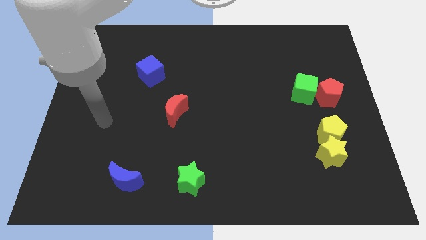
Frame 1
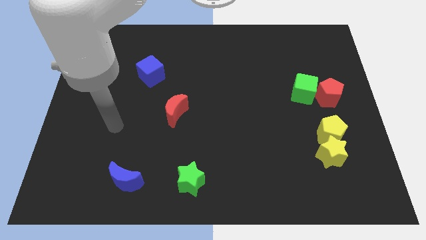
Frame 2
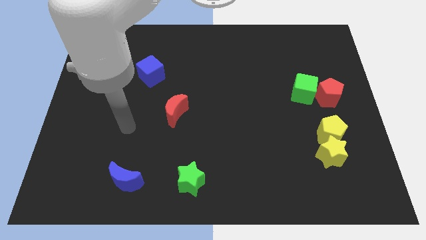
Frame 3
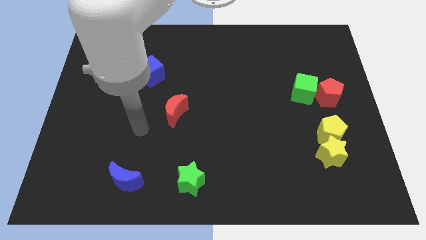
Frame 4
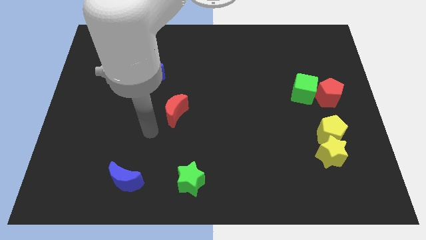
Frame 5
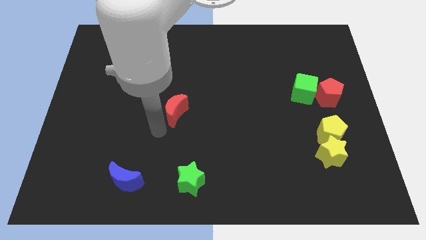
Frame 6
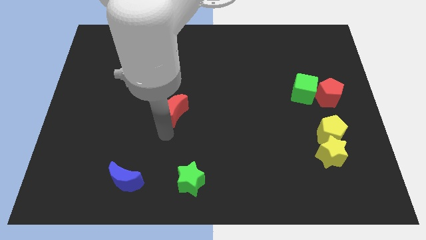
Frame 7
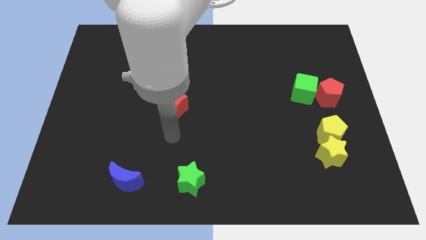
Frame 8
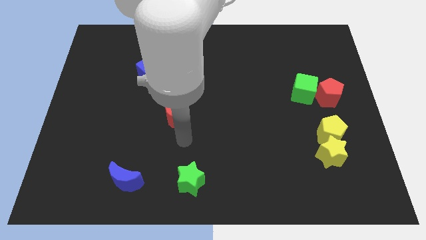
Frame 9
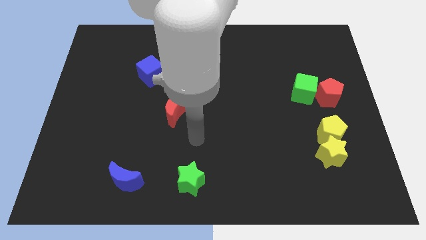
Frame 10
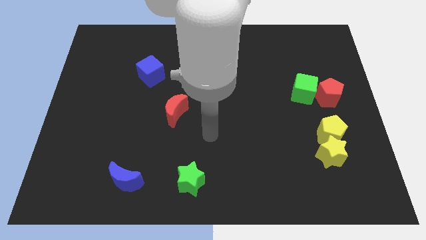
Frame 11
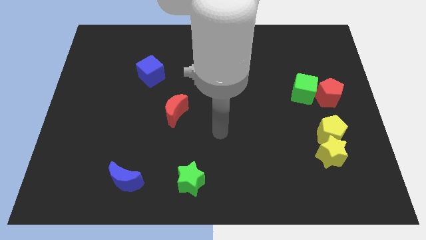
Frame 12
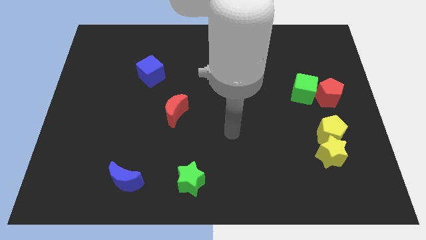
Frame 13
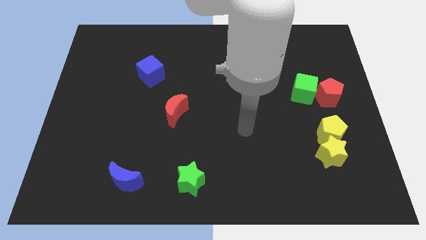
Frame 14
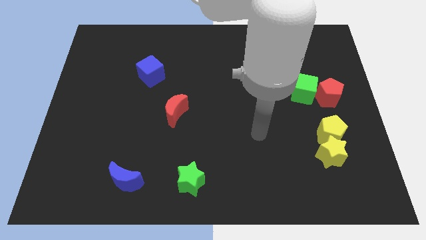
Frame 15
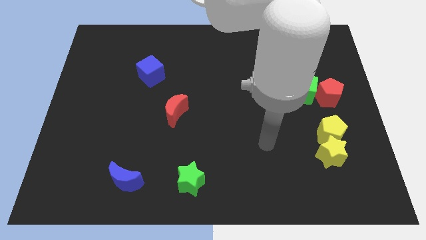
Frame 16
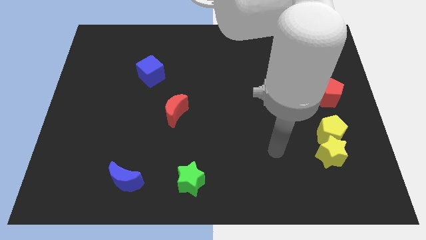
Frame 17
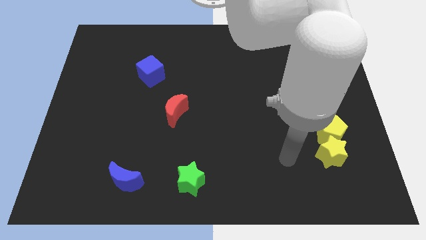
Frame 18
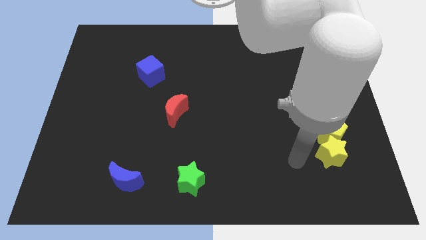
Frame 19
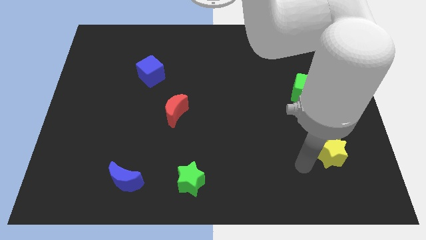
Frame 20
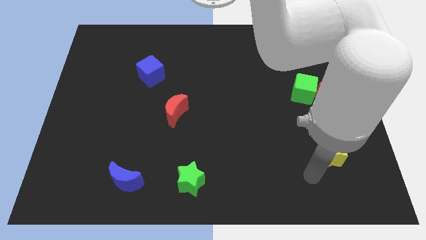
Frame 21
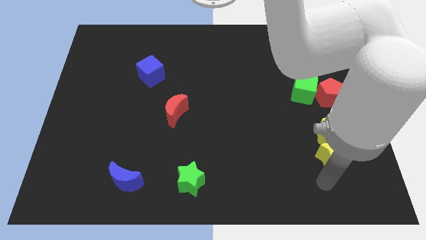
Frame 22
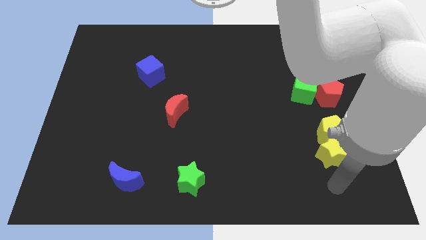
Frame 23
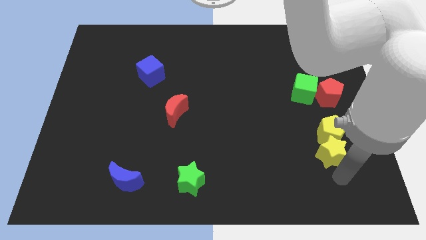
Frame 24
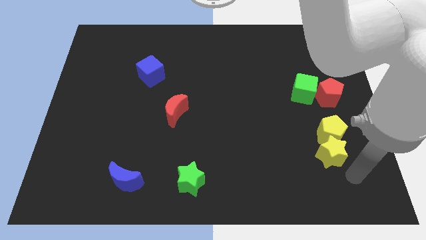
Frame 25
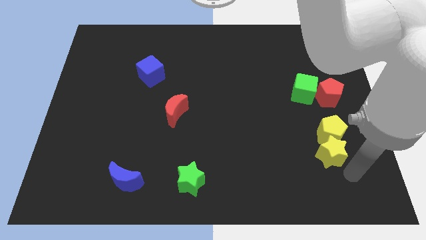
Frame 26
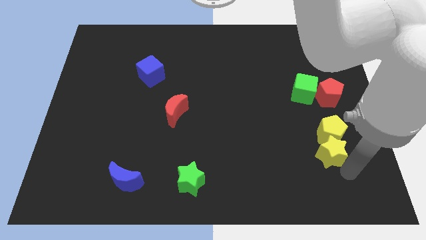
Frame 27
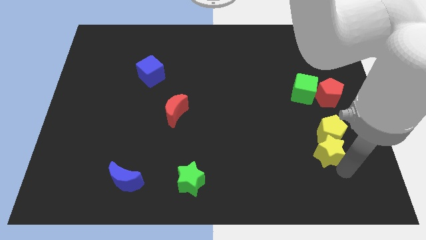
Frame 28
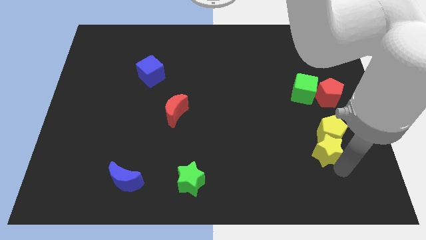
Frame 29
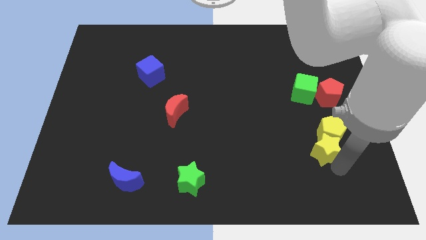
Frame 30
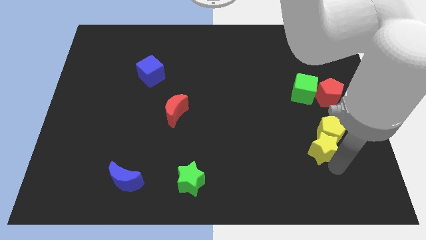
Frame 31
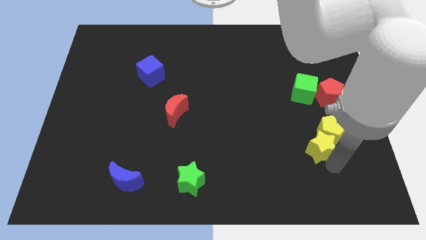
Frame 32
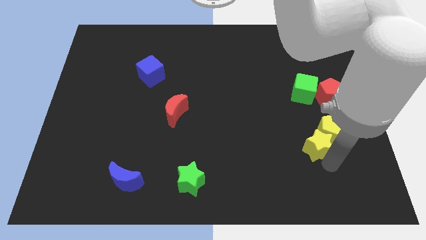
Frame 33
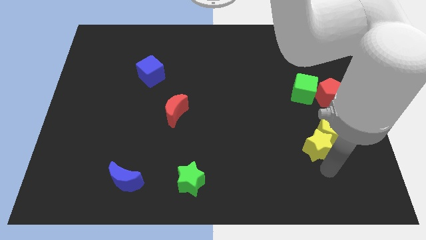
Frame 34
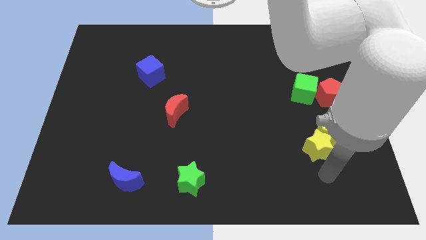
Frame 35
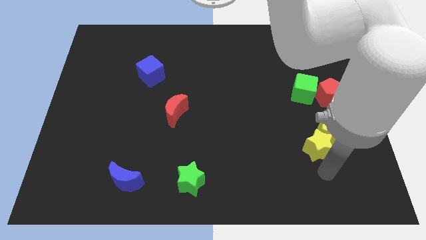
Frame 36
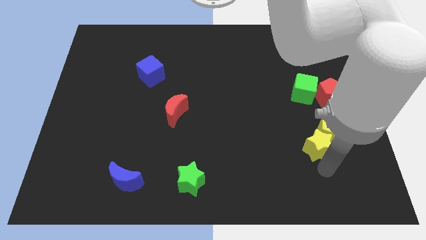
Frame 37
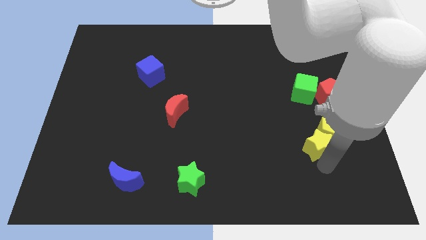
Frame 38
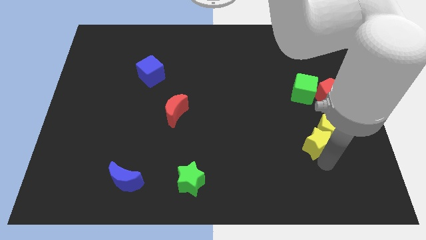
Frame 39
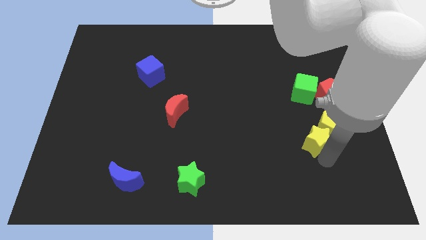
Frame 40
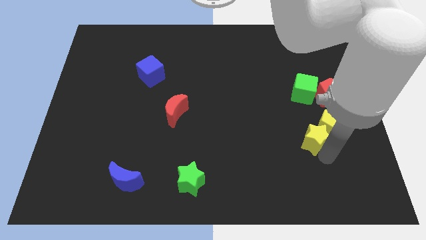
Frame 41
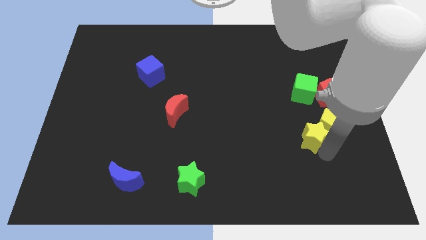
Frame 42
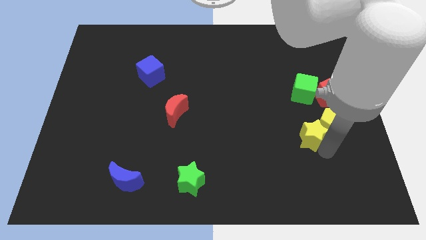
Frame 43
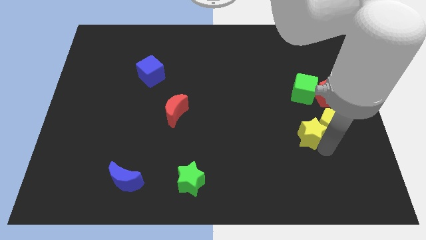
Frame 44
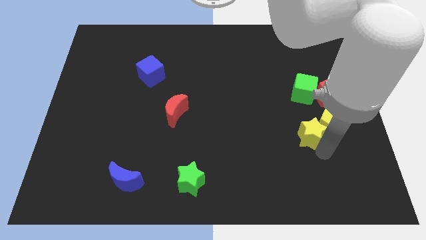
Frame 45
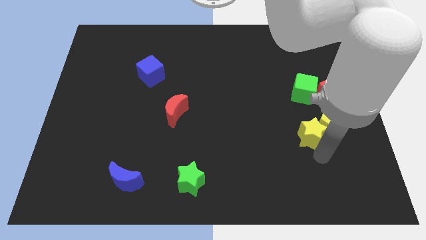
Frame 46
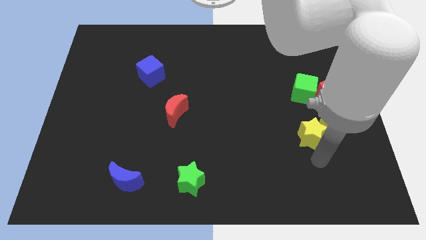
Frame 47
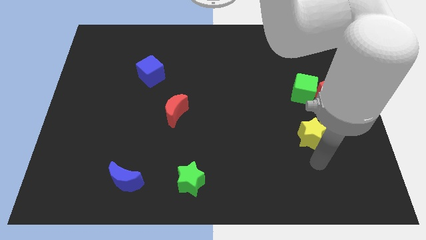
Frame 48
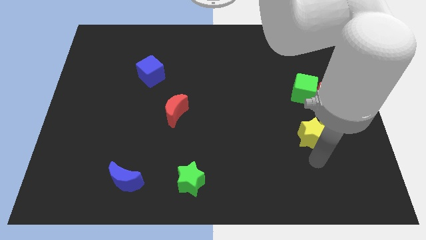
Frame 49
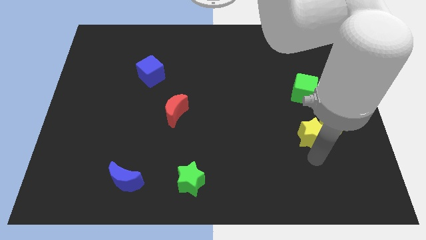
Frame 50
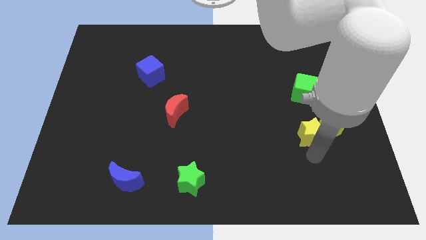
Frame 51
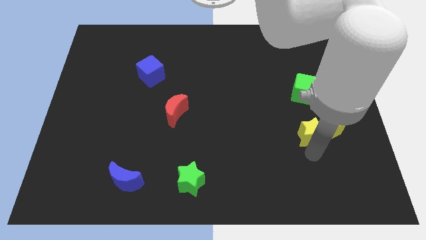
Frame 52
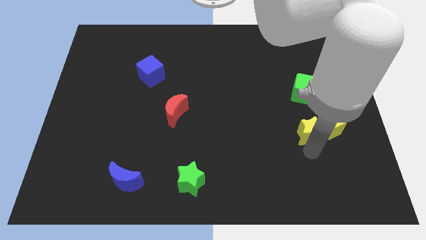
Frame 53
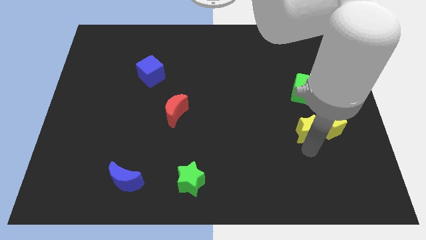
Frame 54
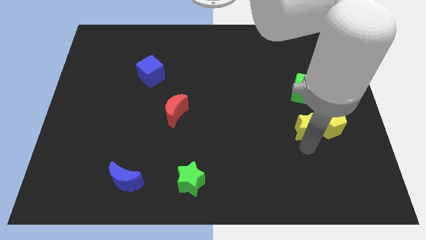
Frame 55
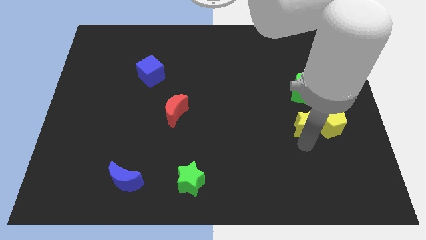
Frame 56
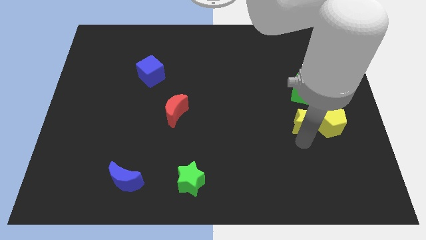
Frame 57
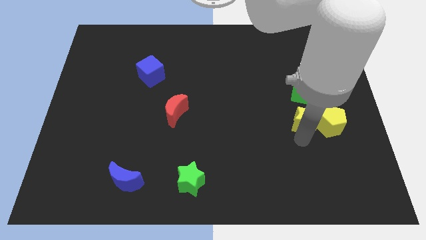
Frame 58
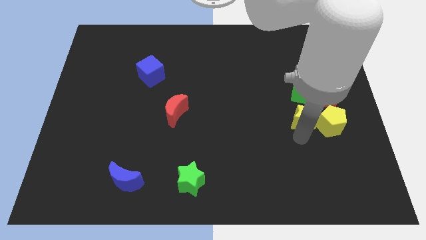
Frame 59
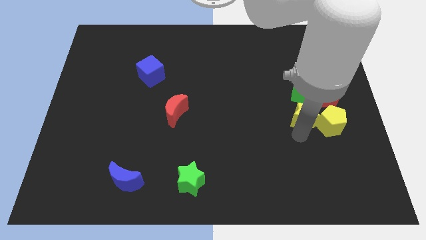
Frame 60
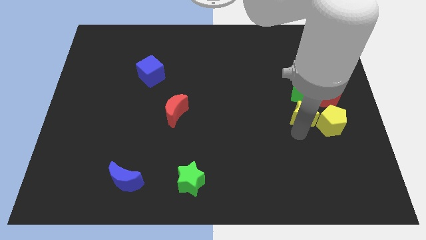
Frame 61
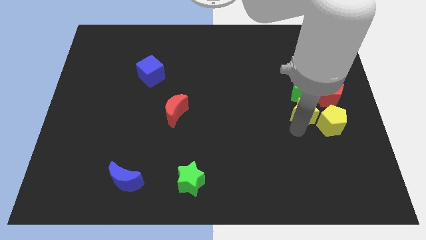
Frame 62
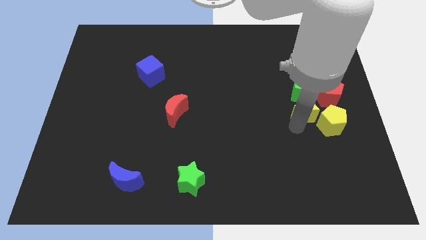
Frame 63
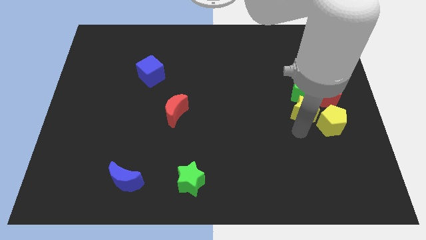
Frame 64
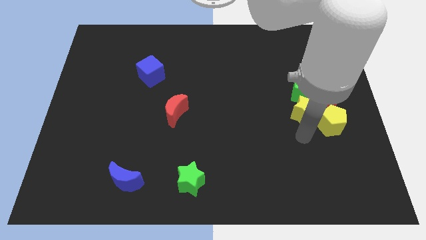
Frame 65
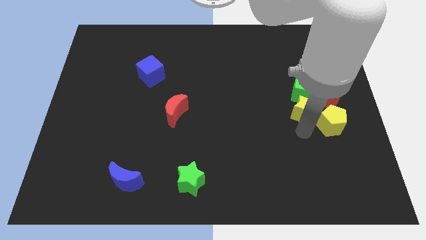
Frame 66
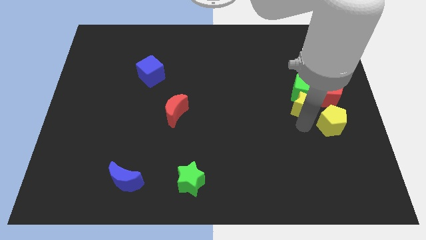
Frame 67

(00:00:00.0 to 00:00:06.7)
move the yellow star close to the green cube

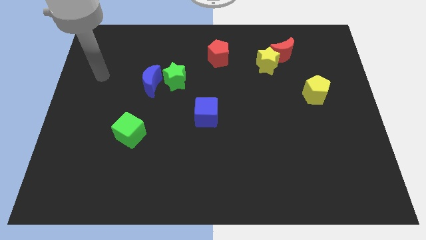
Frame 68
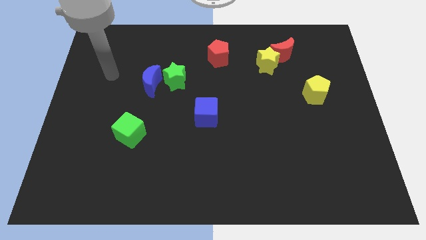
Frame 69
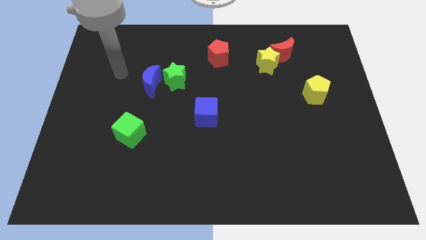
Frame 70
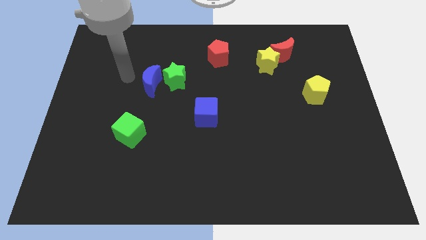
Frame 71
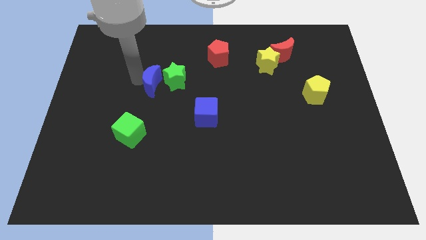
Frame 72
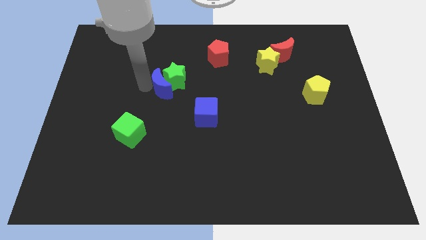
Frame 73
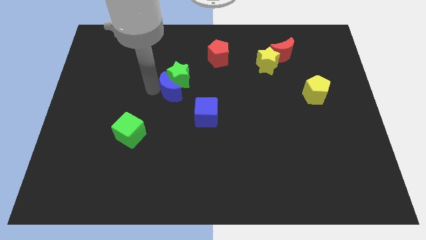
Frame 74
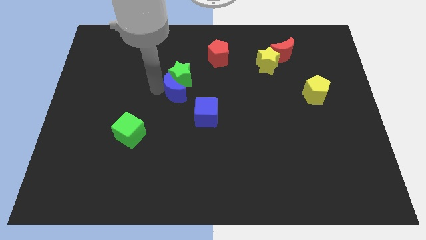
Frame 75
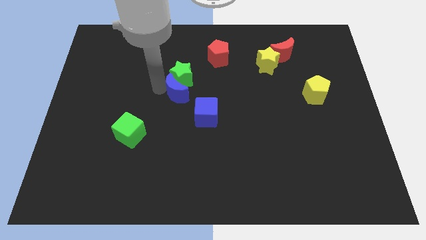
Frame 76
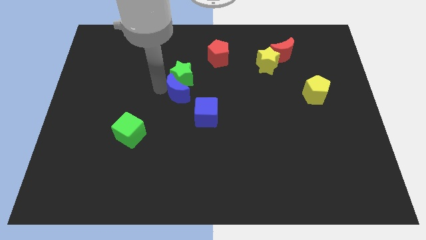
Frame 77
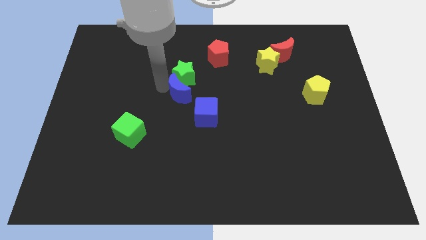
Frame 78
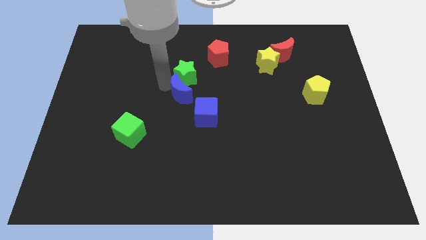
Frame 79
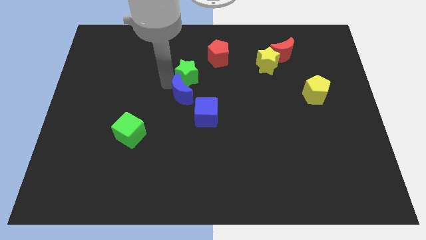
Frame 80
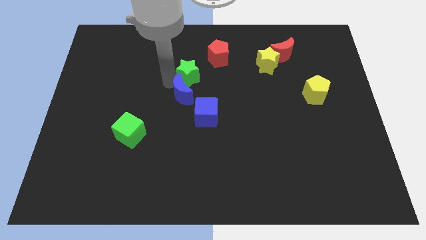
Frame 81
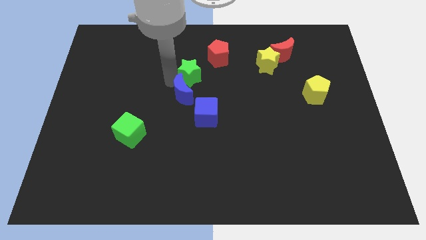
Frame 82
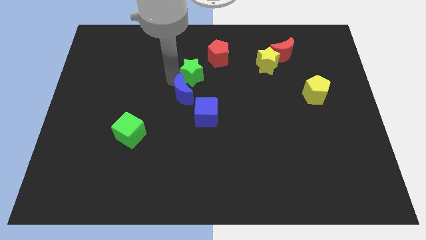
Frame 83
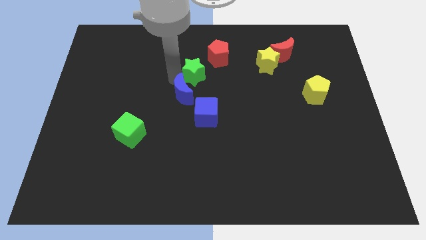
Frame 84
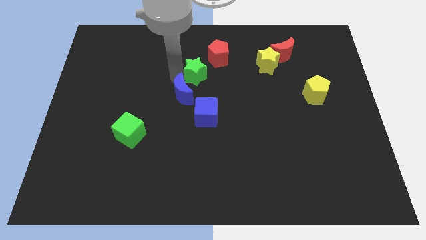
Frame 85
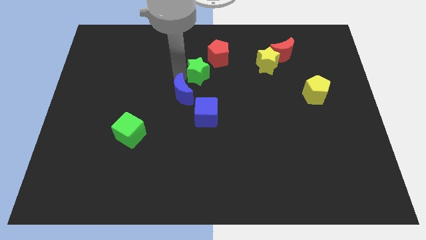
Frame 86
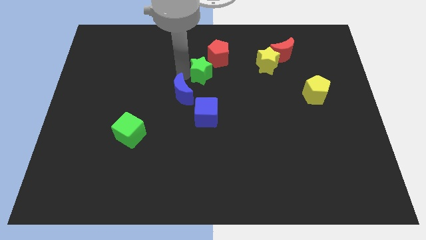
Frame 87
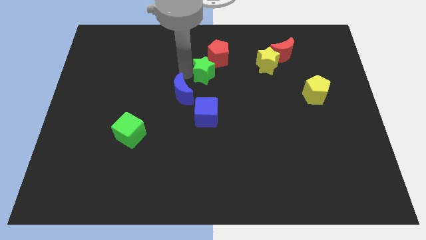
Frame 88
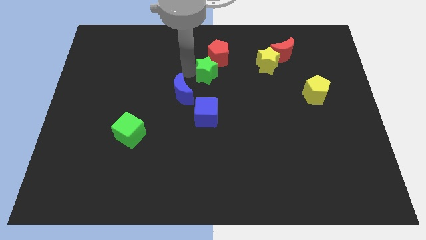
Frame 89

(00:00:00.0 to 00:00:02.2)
put the green star next to the red pentagon
